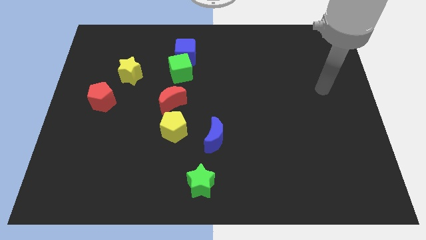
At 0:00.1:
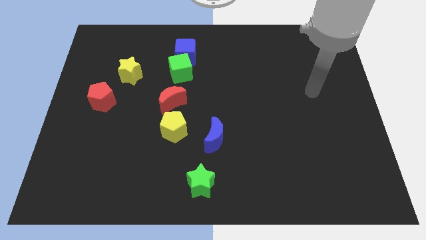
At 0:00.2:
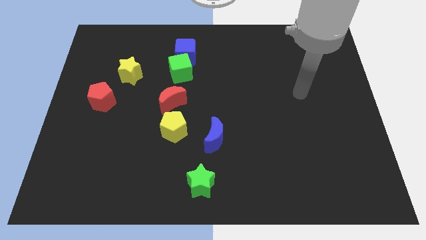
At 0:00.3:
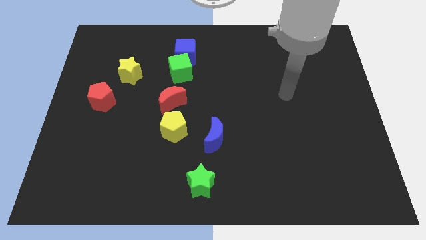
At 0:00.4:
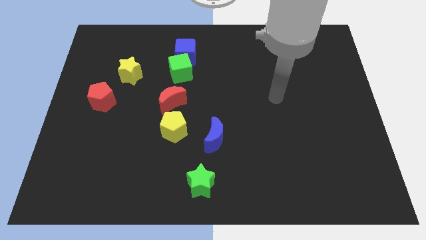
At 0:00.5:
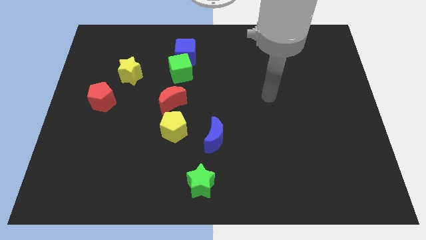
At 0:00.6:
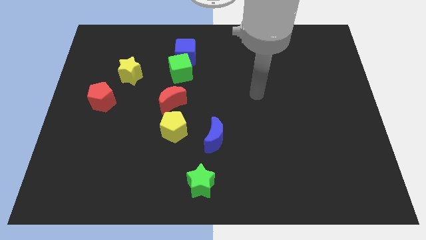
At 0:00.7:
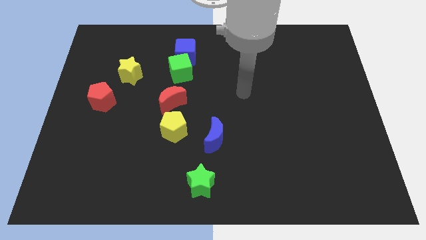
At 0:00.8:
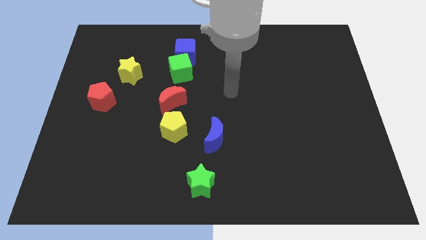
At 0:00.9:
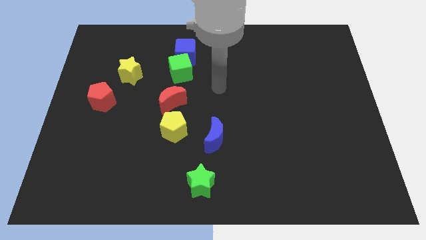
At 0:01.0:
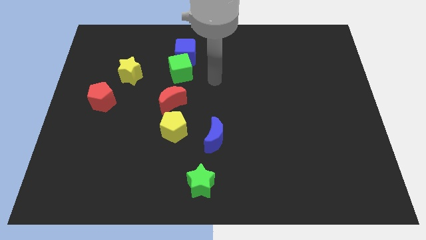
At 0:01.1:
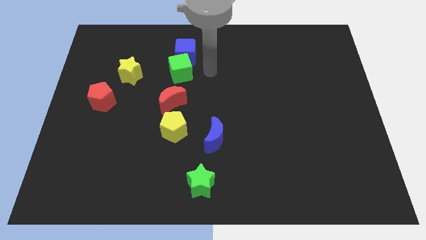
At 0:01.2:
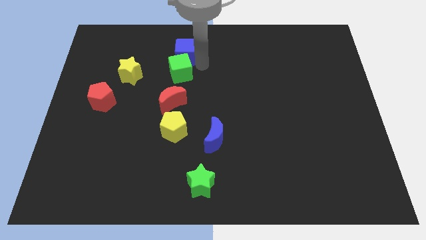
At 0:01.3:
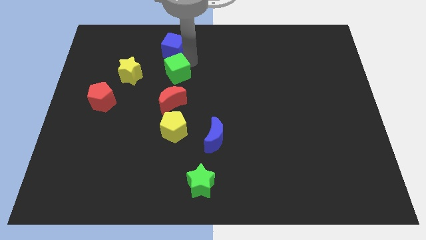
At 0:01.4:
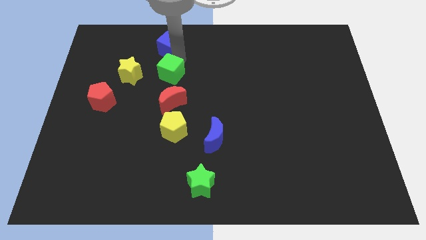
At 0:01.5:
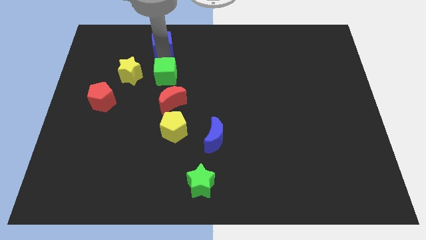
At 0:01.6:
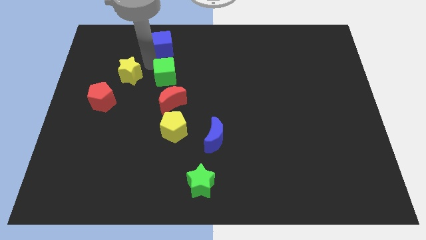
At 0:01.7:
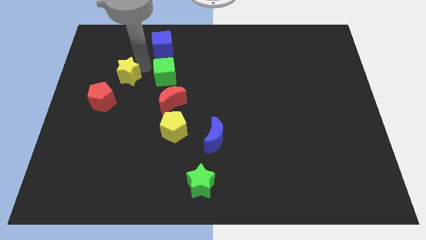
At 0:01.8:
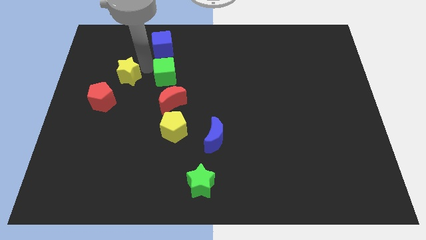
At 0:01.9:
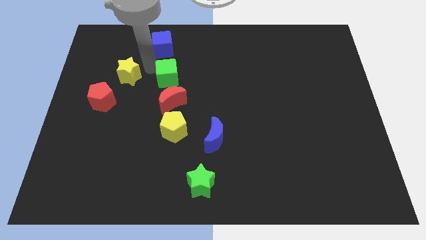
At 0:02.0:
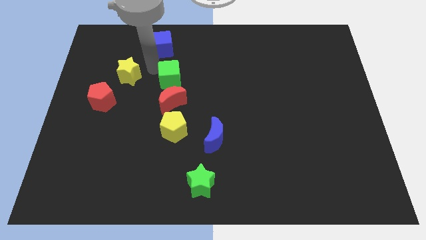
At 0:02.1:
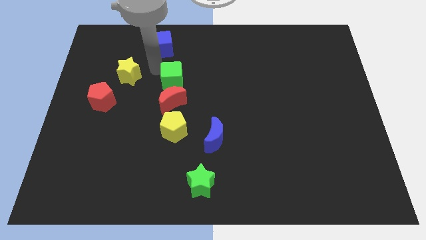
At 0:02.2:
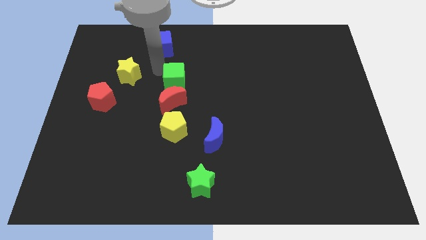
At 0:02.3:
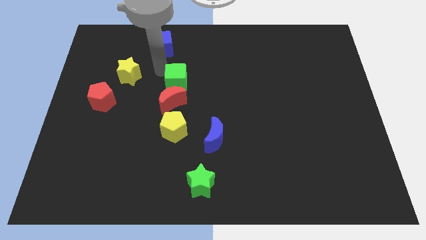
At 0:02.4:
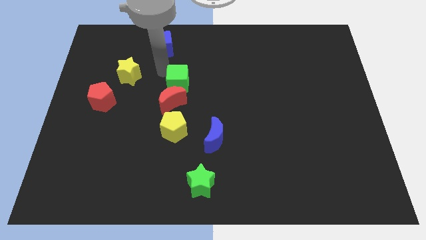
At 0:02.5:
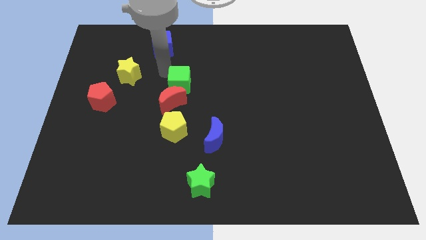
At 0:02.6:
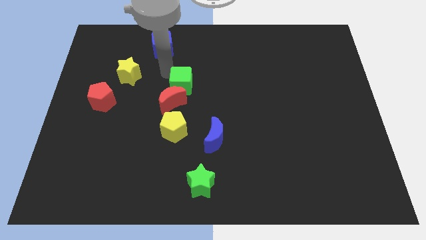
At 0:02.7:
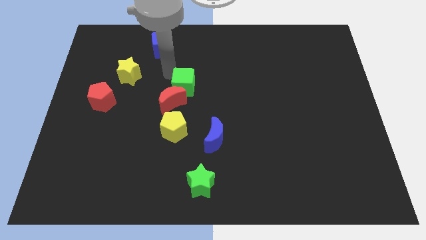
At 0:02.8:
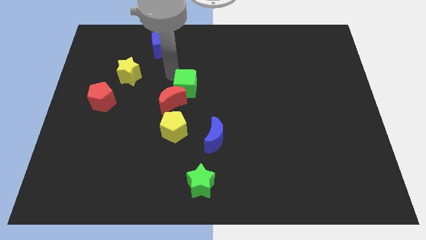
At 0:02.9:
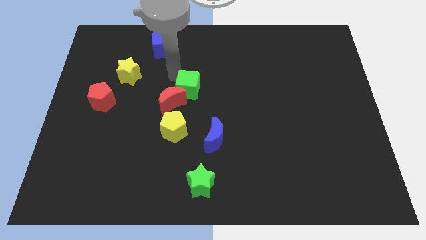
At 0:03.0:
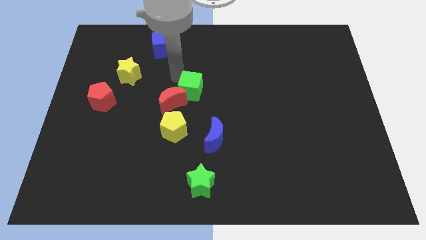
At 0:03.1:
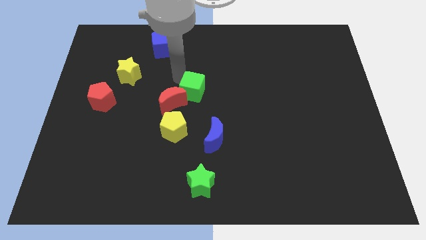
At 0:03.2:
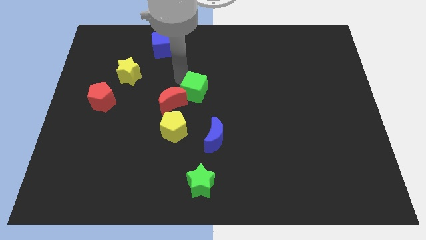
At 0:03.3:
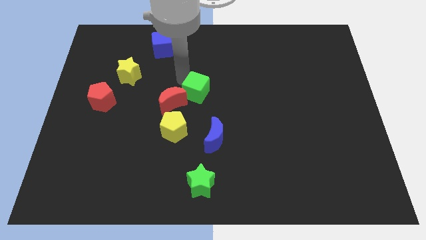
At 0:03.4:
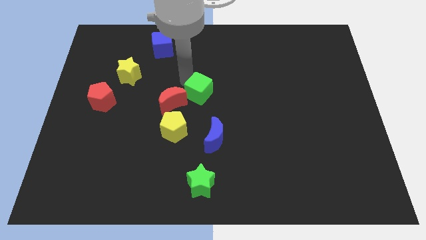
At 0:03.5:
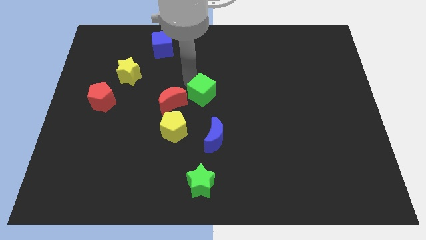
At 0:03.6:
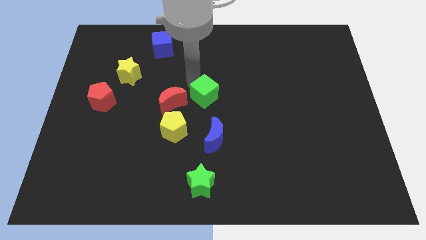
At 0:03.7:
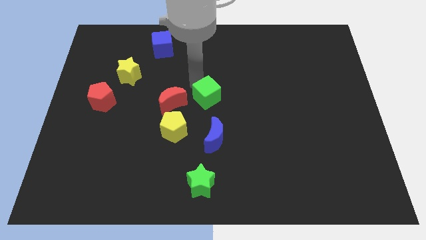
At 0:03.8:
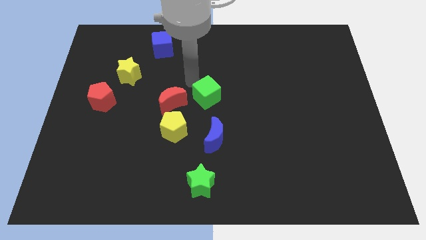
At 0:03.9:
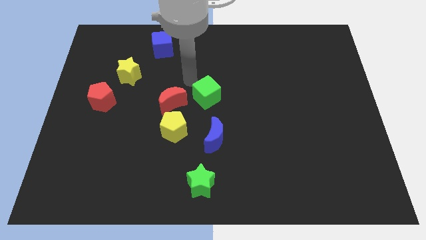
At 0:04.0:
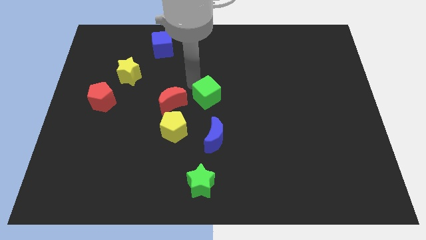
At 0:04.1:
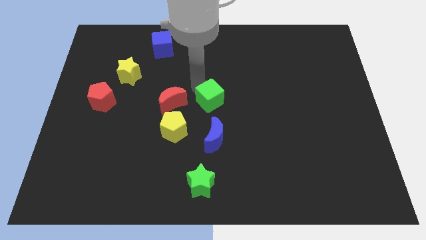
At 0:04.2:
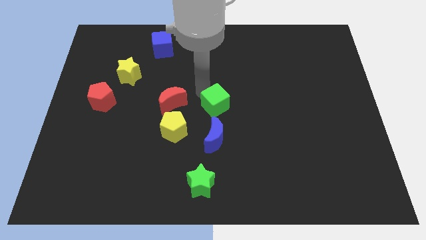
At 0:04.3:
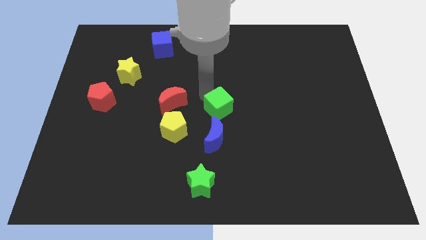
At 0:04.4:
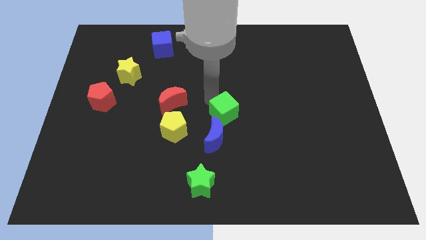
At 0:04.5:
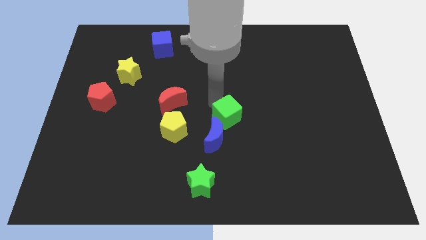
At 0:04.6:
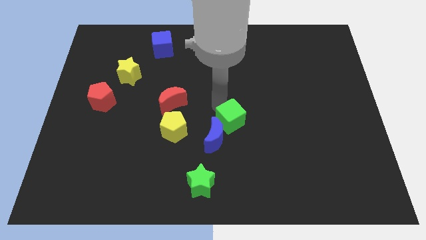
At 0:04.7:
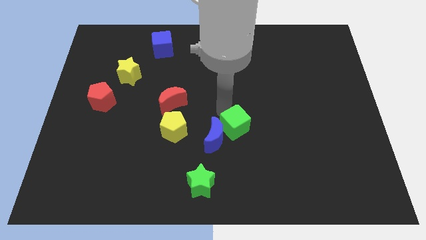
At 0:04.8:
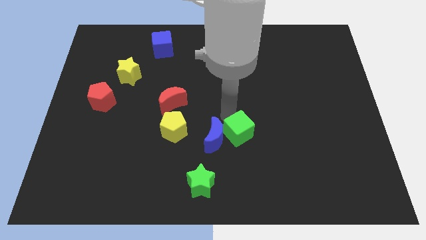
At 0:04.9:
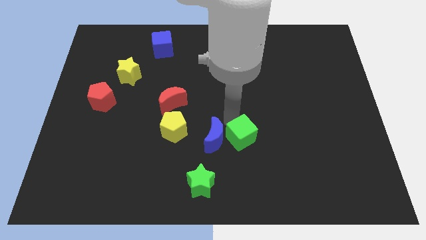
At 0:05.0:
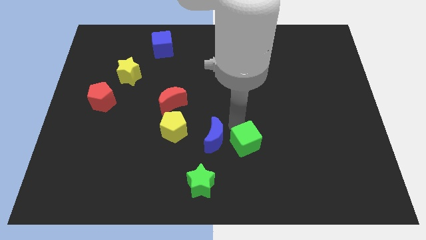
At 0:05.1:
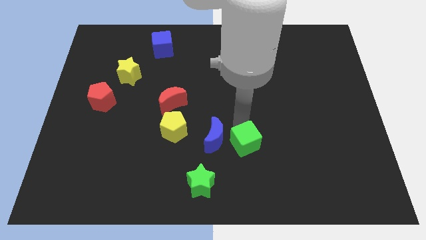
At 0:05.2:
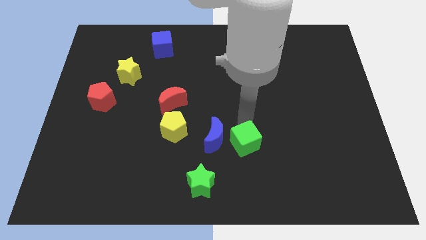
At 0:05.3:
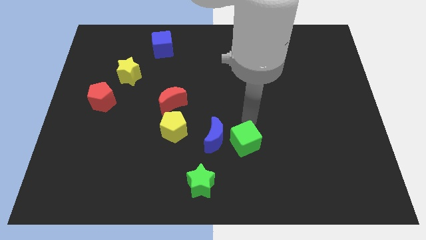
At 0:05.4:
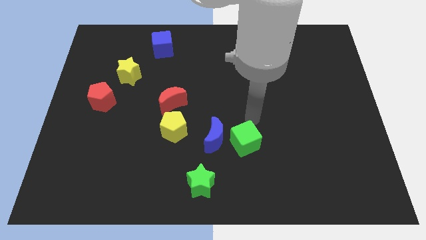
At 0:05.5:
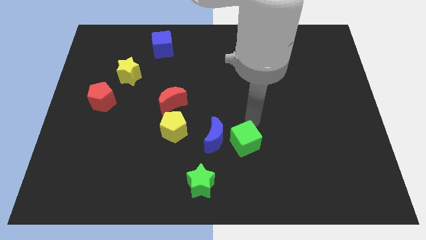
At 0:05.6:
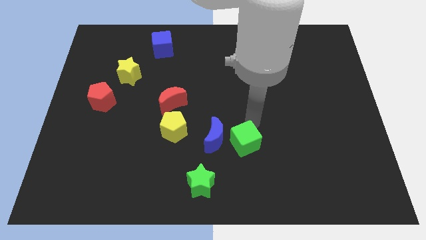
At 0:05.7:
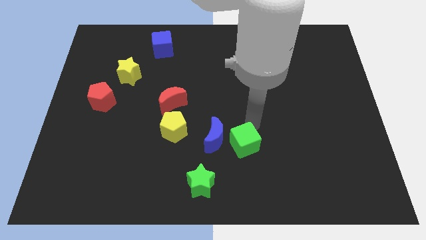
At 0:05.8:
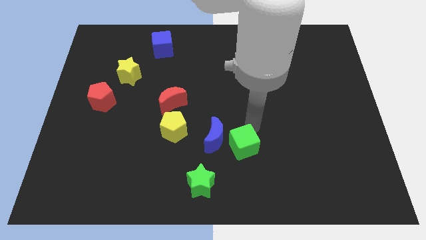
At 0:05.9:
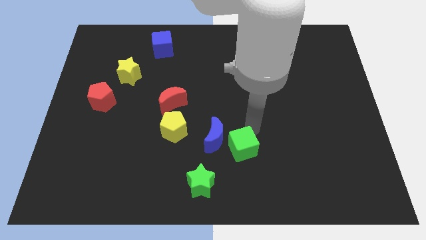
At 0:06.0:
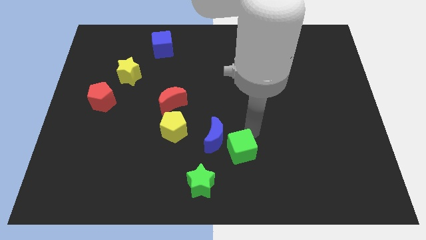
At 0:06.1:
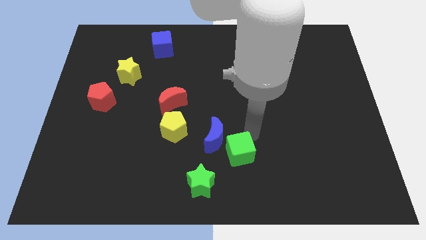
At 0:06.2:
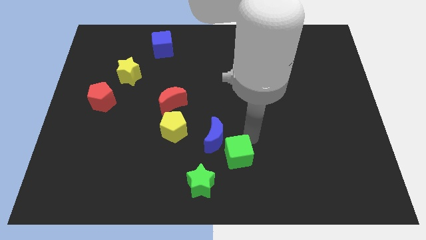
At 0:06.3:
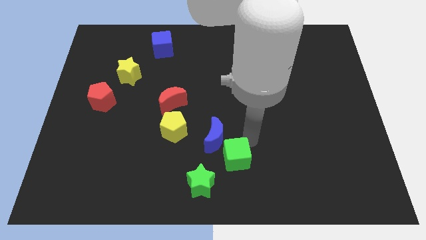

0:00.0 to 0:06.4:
push the green cube to the bottom side

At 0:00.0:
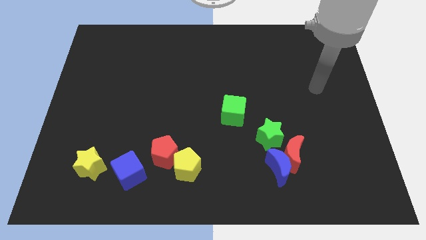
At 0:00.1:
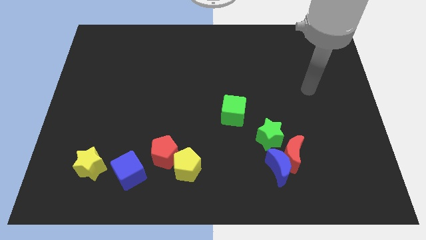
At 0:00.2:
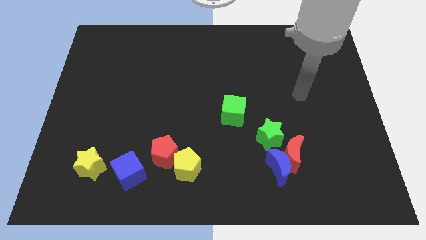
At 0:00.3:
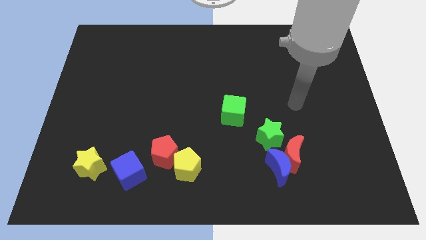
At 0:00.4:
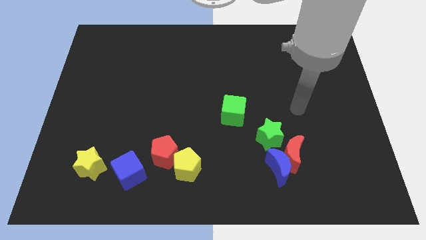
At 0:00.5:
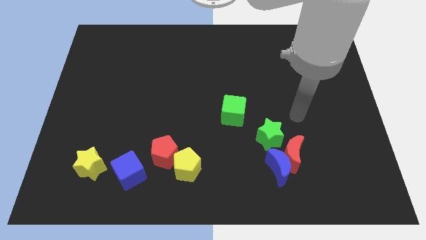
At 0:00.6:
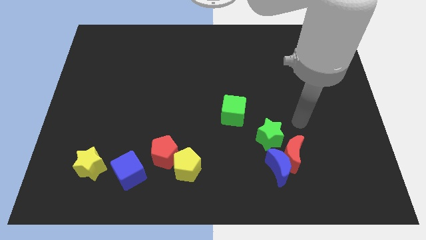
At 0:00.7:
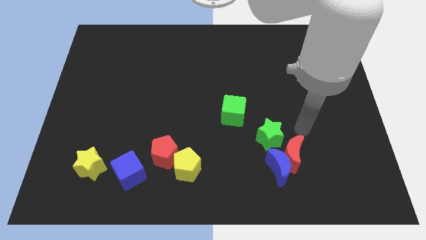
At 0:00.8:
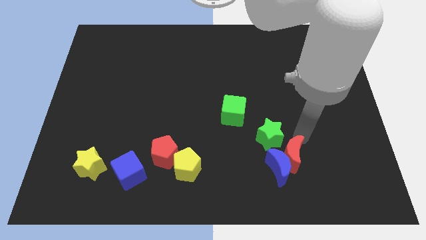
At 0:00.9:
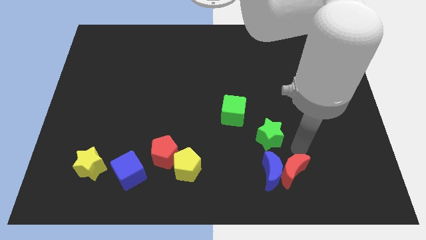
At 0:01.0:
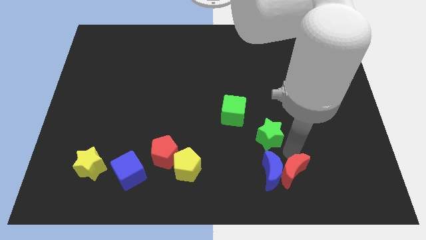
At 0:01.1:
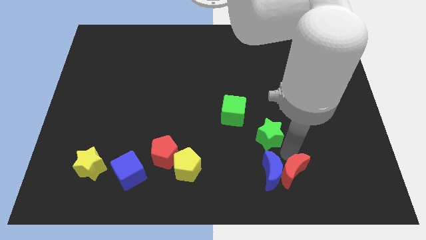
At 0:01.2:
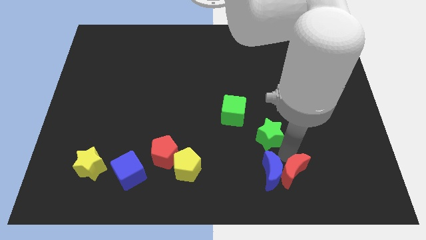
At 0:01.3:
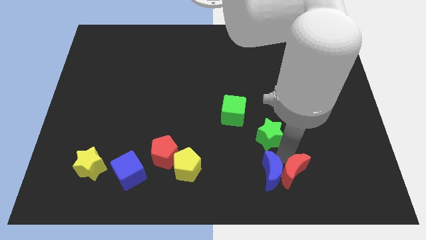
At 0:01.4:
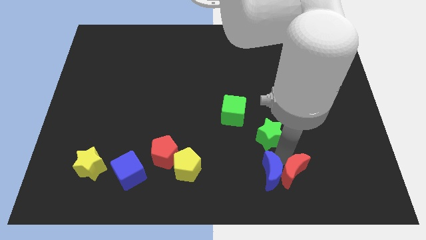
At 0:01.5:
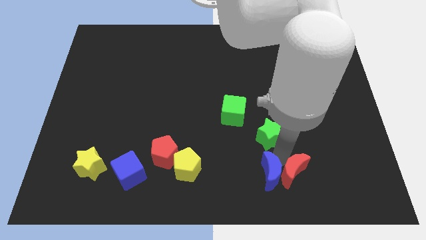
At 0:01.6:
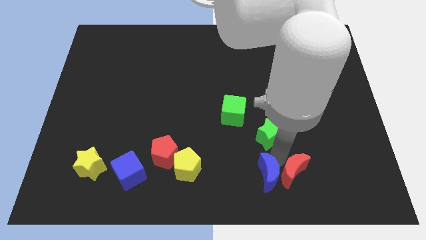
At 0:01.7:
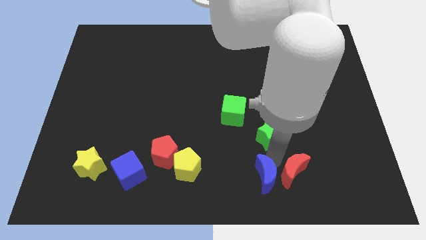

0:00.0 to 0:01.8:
push the blue moon to the bottom side
